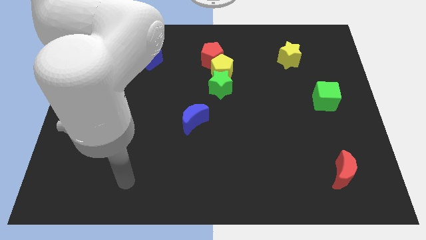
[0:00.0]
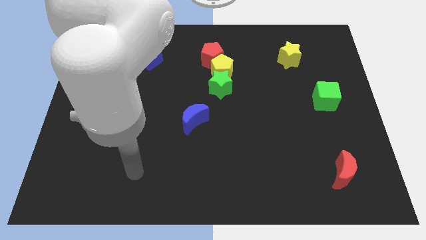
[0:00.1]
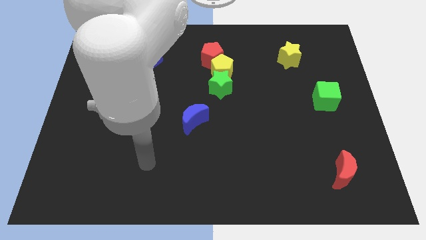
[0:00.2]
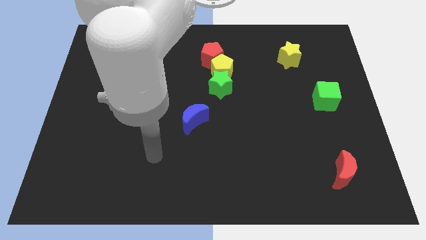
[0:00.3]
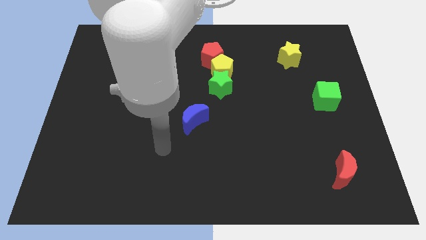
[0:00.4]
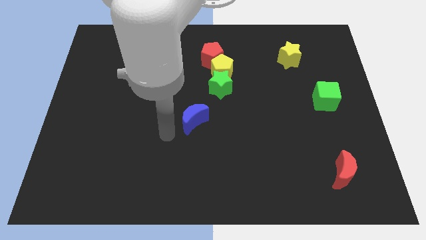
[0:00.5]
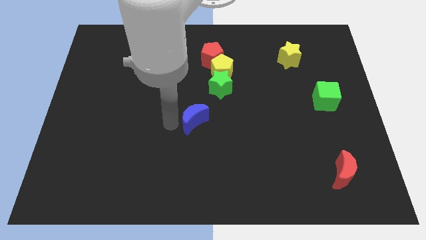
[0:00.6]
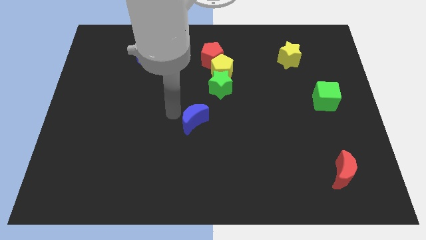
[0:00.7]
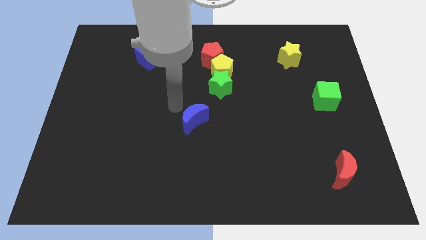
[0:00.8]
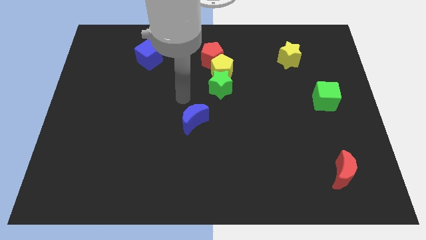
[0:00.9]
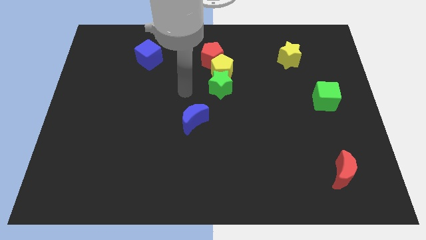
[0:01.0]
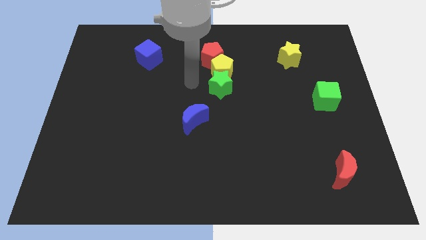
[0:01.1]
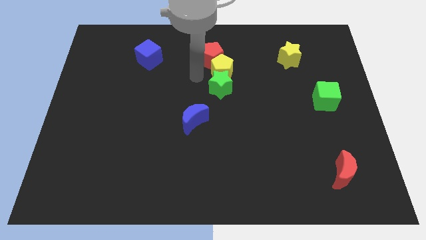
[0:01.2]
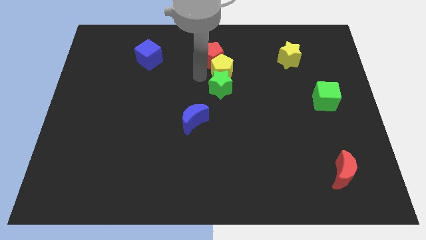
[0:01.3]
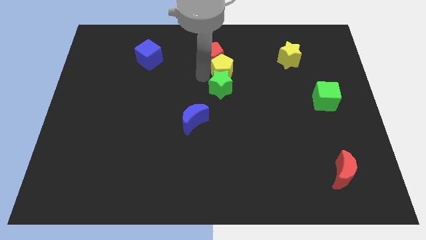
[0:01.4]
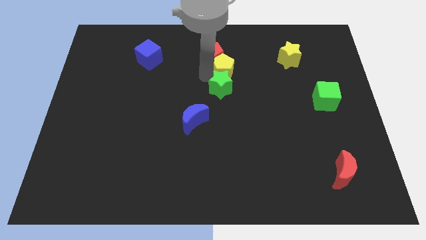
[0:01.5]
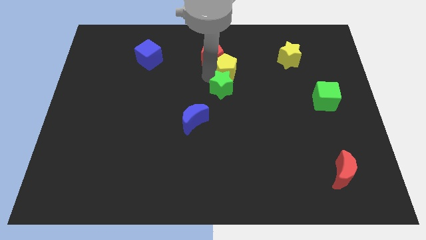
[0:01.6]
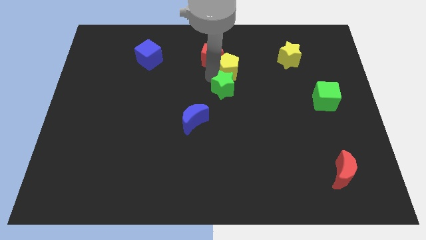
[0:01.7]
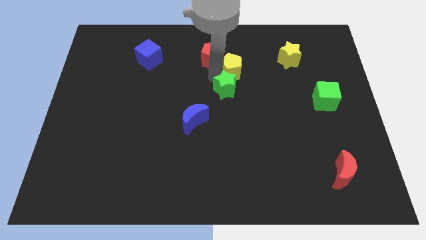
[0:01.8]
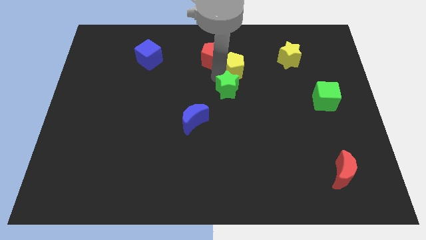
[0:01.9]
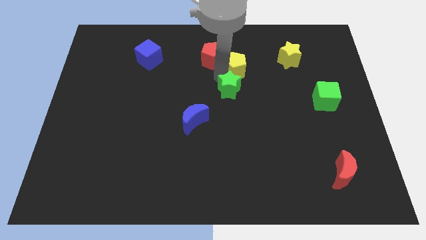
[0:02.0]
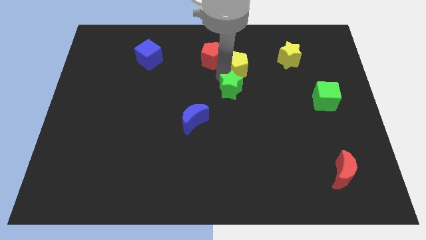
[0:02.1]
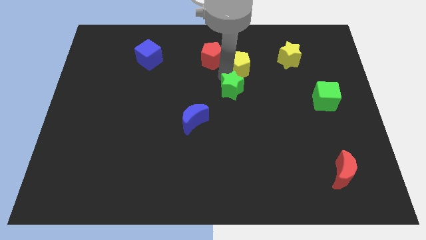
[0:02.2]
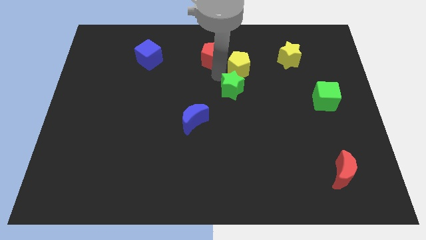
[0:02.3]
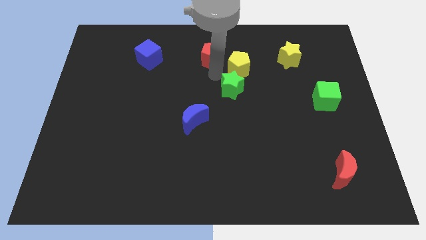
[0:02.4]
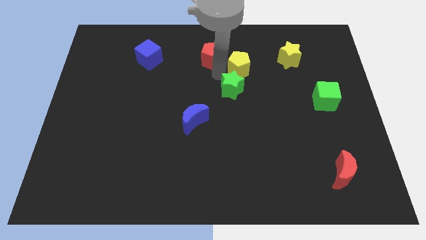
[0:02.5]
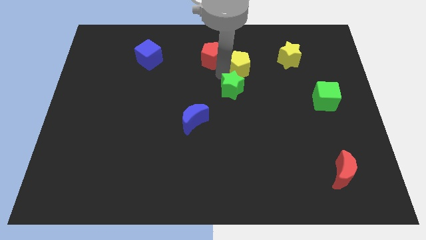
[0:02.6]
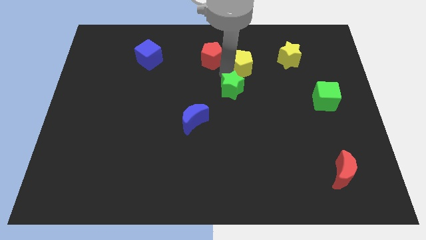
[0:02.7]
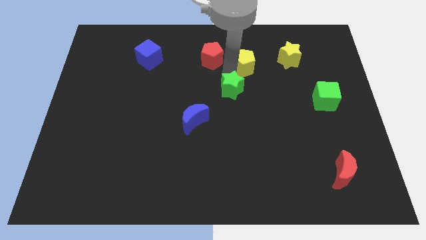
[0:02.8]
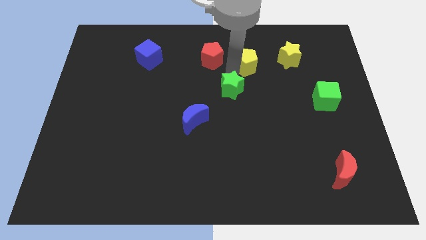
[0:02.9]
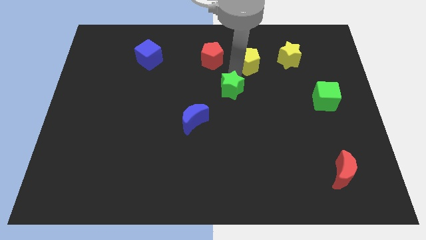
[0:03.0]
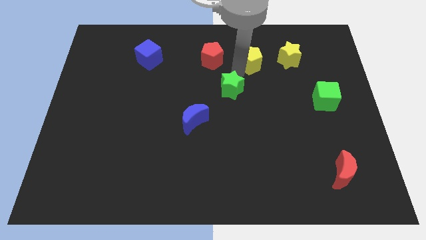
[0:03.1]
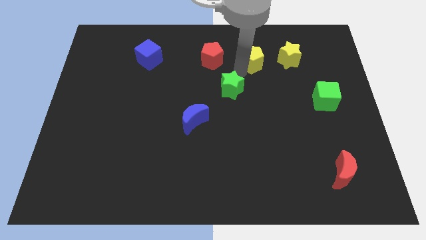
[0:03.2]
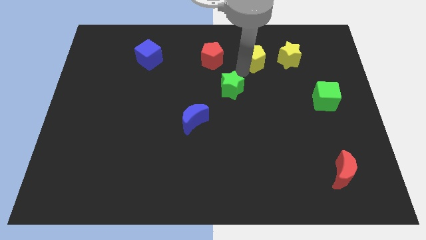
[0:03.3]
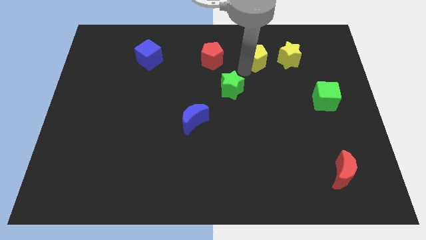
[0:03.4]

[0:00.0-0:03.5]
separate the yellow pentagon from the green star and red pentagon

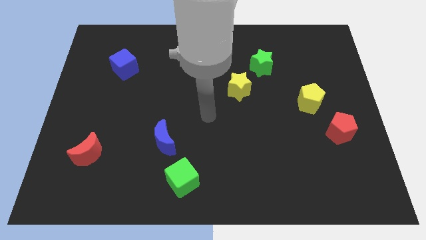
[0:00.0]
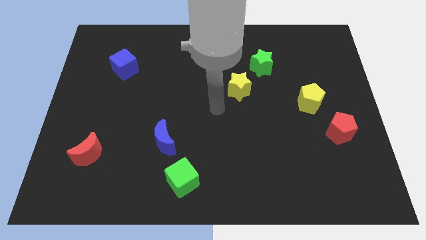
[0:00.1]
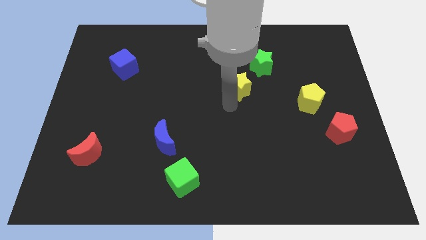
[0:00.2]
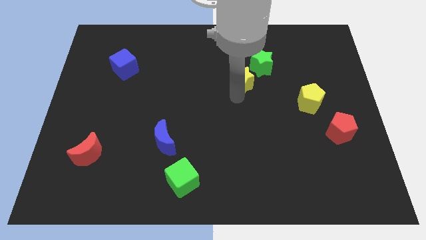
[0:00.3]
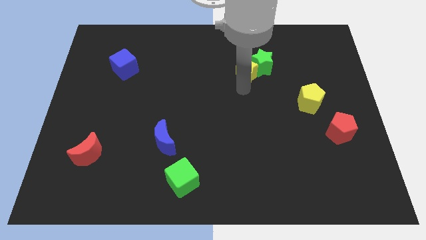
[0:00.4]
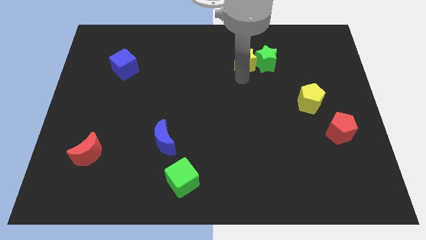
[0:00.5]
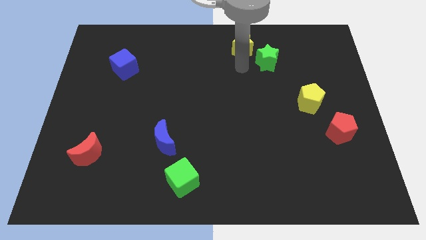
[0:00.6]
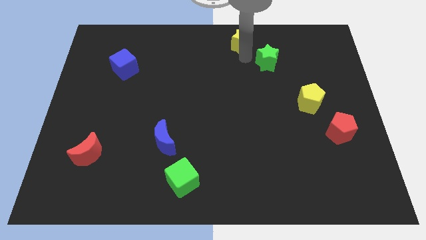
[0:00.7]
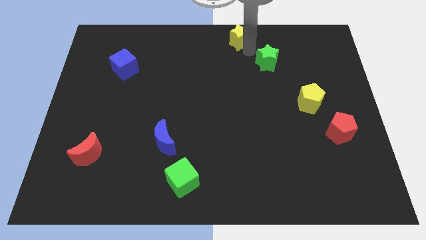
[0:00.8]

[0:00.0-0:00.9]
separate the green star from the yellow star

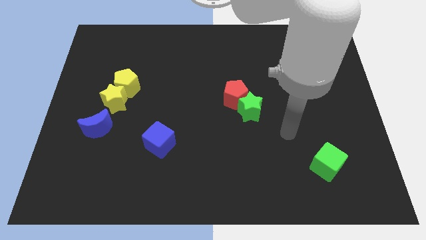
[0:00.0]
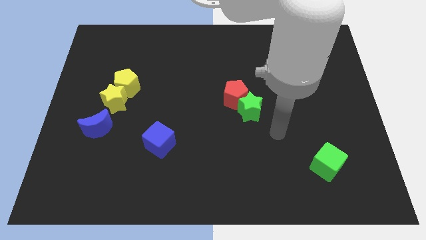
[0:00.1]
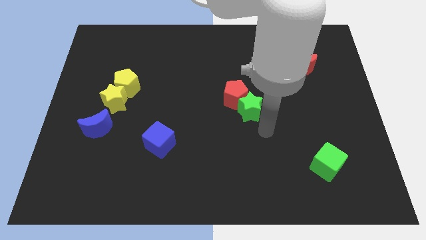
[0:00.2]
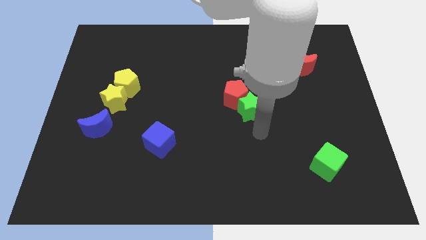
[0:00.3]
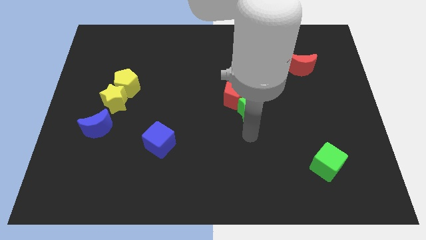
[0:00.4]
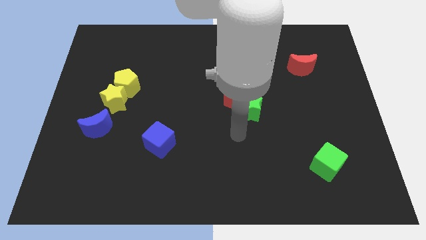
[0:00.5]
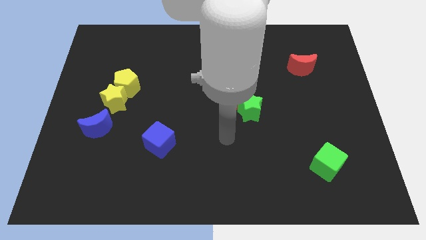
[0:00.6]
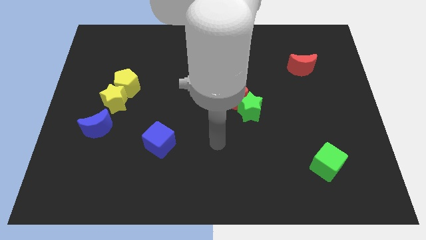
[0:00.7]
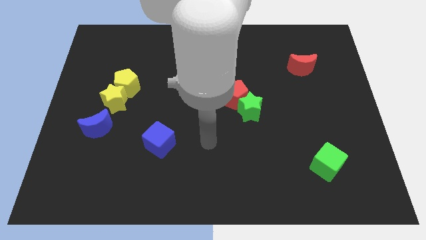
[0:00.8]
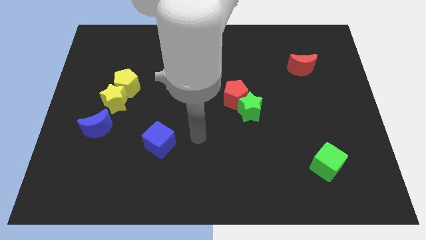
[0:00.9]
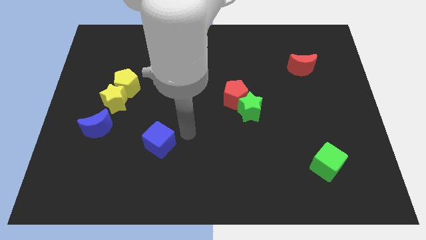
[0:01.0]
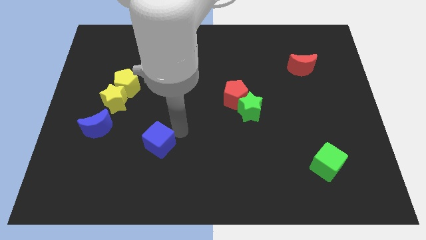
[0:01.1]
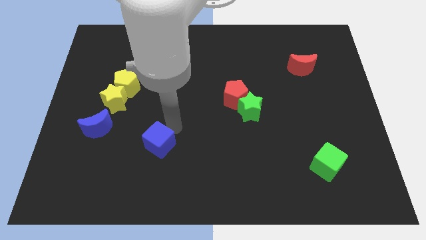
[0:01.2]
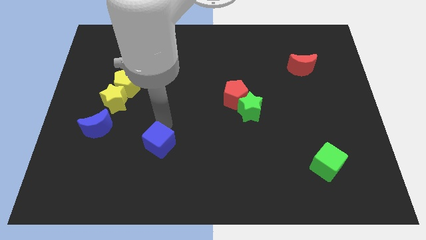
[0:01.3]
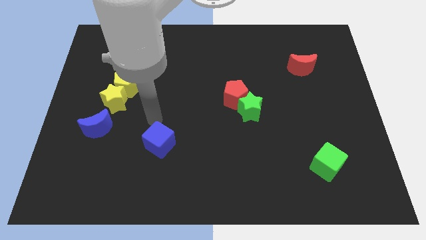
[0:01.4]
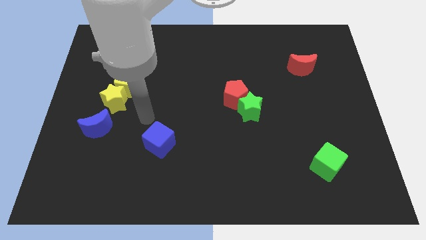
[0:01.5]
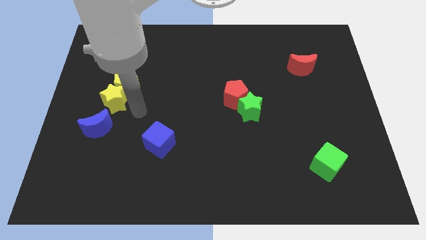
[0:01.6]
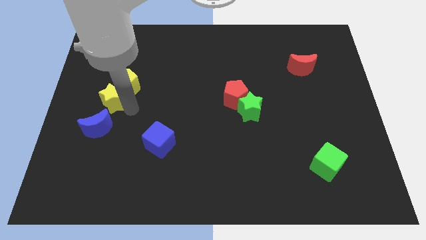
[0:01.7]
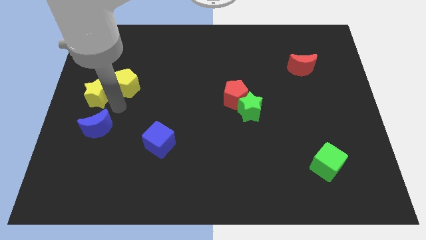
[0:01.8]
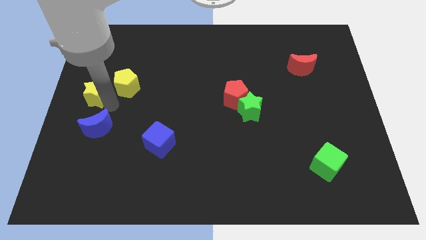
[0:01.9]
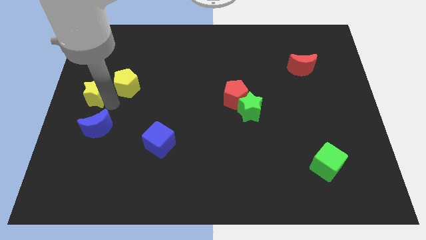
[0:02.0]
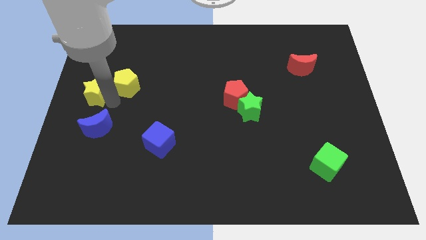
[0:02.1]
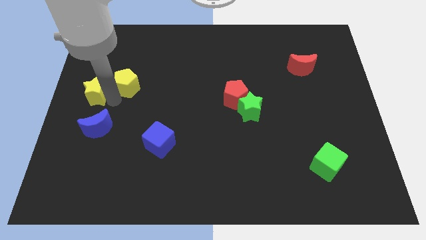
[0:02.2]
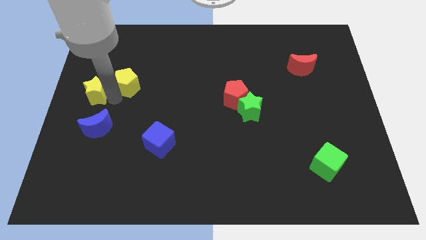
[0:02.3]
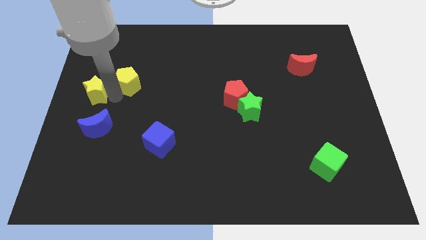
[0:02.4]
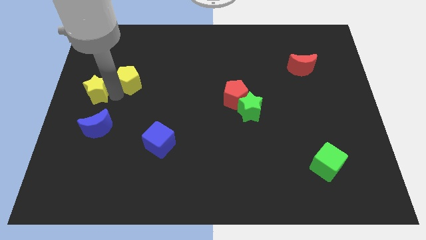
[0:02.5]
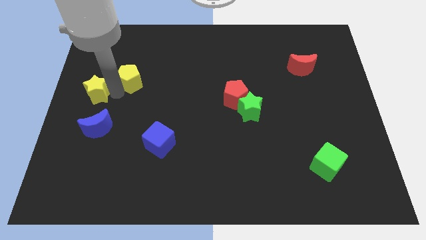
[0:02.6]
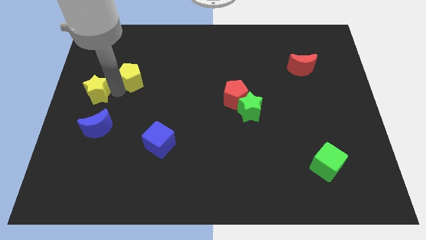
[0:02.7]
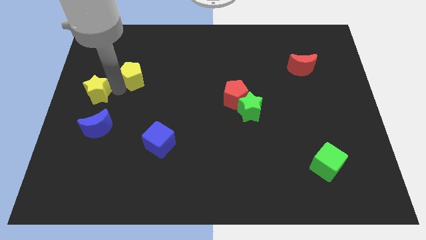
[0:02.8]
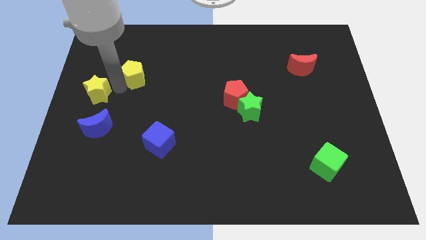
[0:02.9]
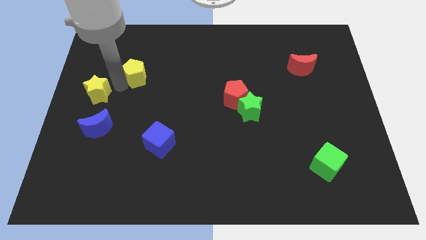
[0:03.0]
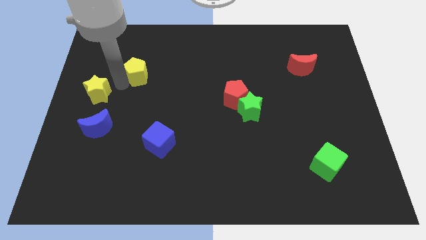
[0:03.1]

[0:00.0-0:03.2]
pull the yellow pentagon apart from the yellow star

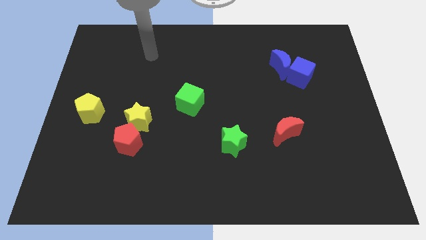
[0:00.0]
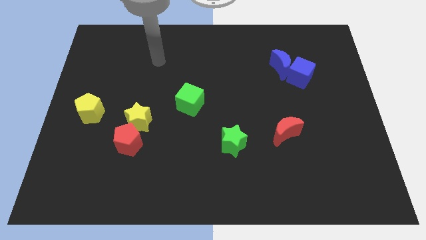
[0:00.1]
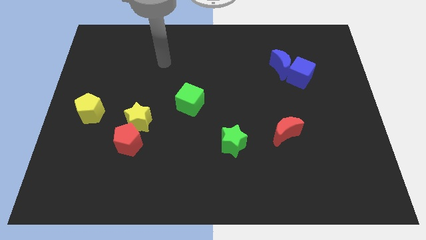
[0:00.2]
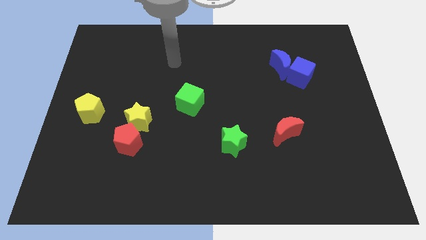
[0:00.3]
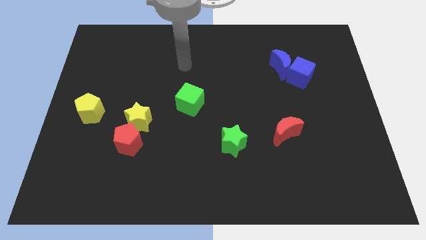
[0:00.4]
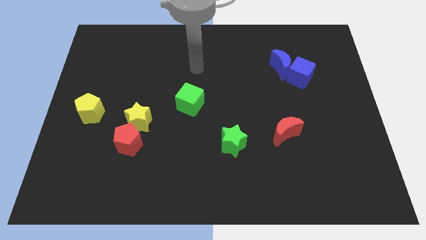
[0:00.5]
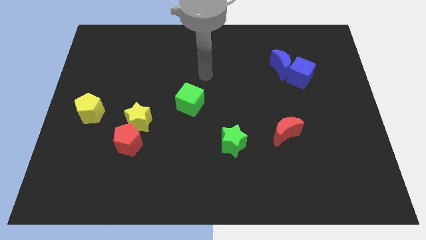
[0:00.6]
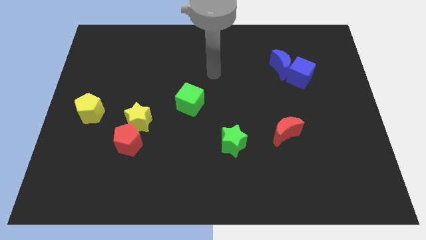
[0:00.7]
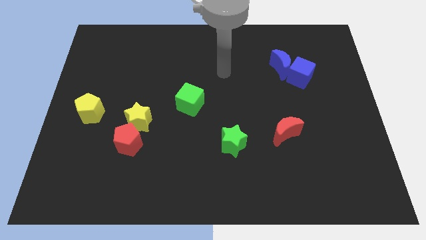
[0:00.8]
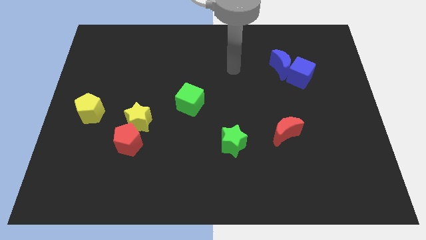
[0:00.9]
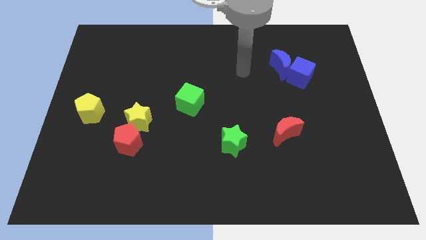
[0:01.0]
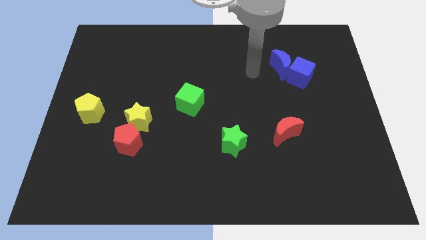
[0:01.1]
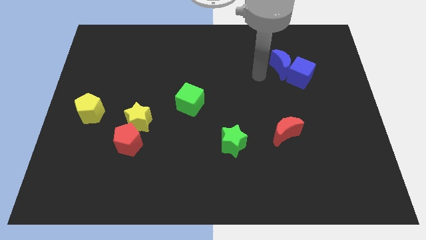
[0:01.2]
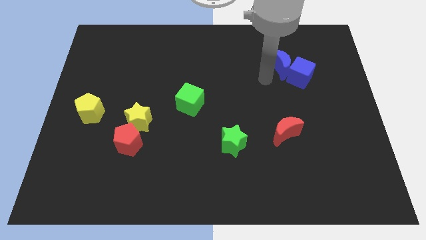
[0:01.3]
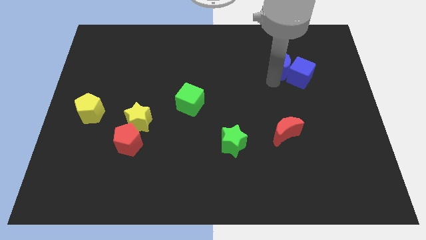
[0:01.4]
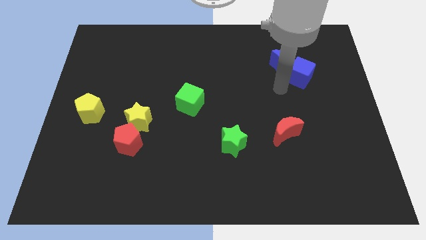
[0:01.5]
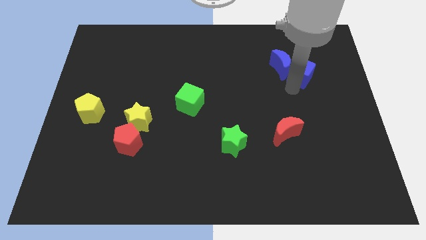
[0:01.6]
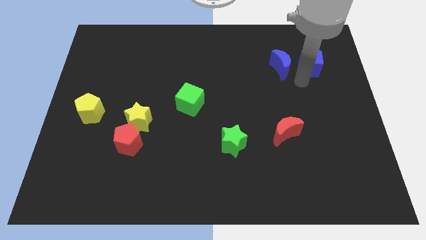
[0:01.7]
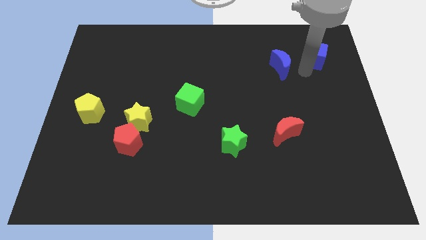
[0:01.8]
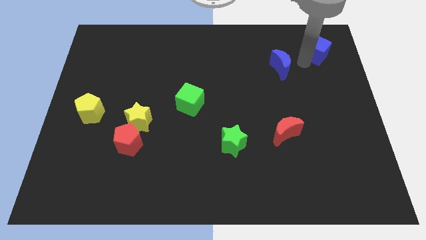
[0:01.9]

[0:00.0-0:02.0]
move the blue moon away from the blue cube
